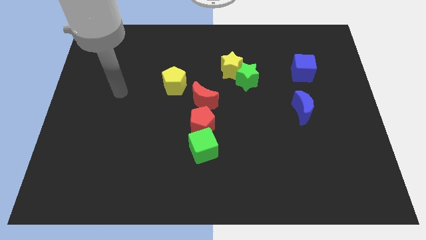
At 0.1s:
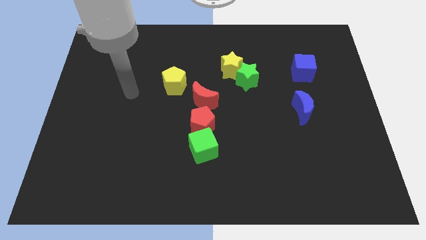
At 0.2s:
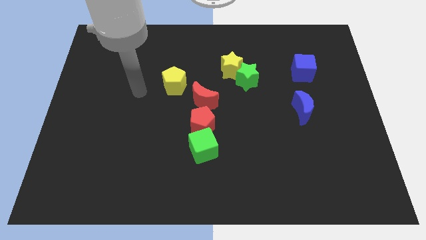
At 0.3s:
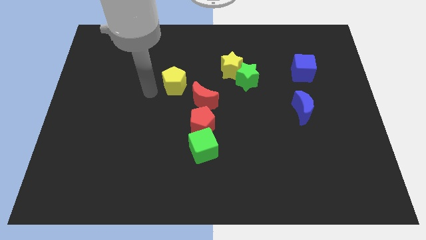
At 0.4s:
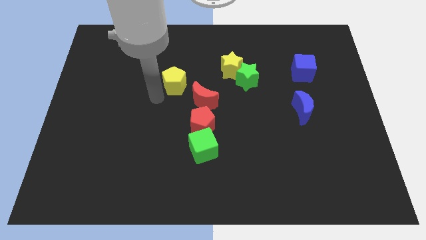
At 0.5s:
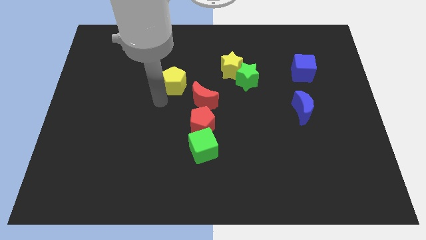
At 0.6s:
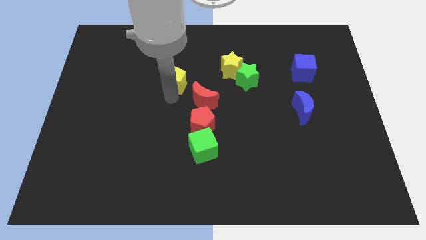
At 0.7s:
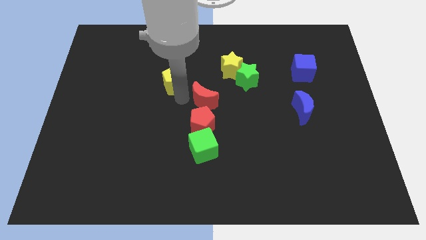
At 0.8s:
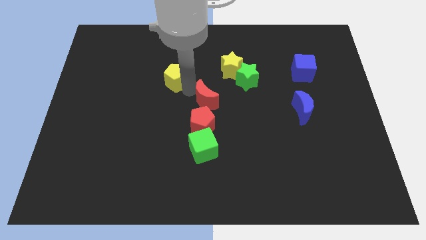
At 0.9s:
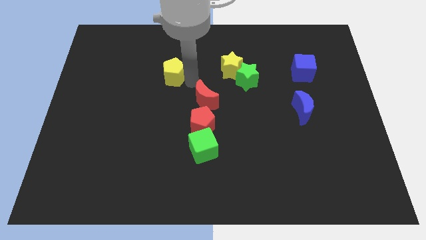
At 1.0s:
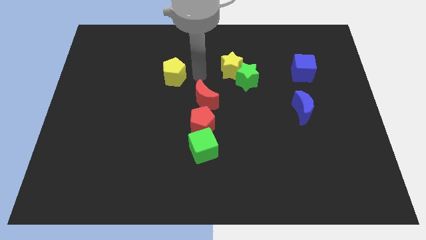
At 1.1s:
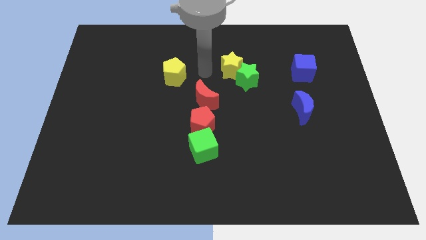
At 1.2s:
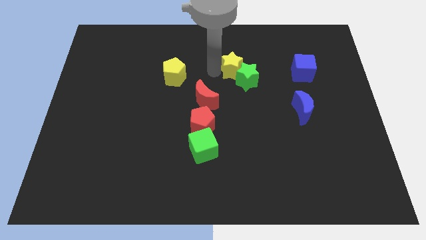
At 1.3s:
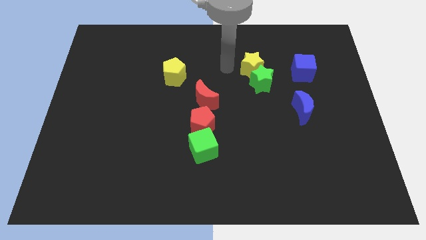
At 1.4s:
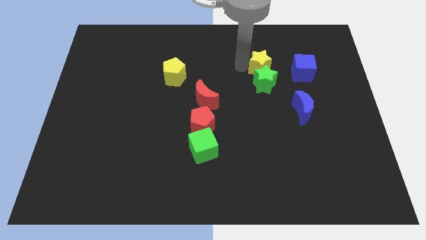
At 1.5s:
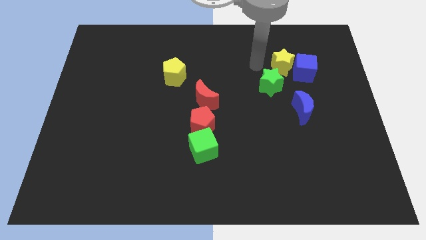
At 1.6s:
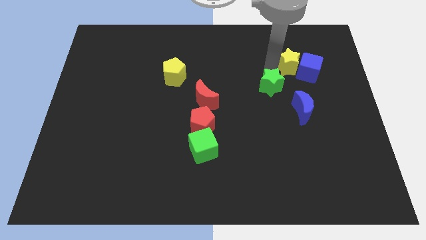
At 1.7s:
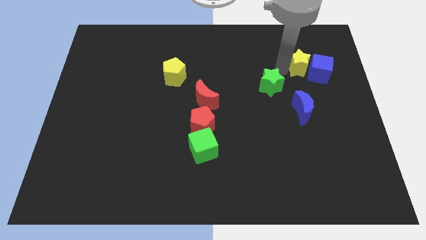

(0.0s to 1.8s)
pull the green star apart from the yellow star

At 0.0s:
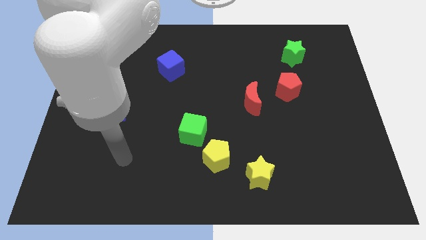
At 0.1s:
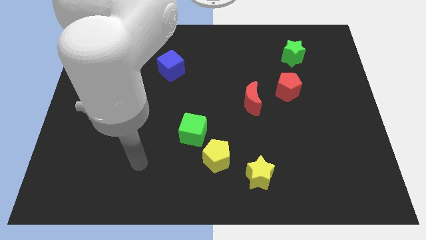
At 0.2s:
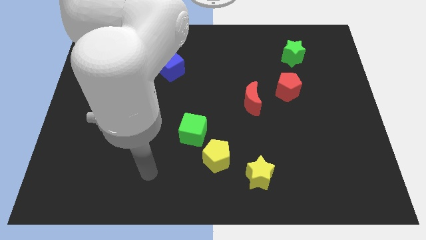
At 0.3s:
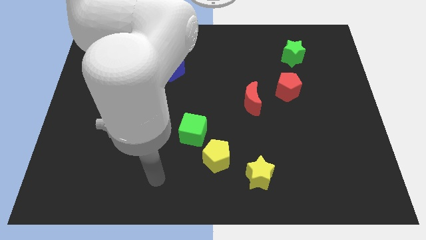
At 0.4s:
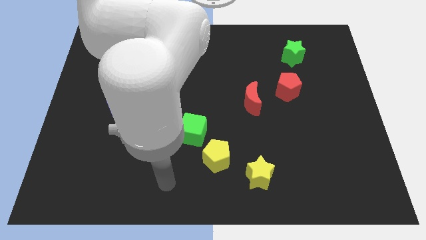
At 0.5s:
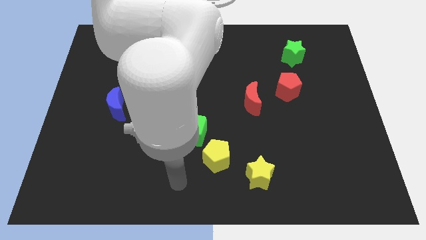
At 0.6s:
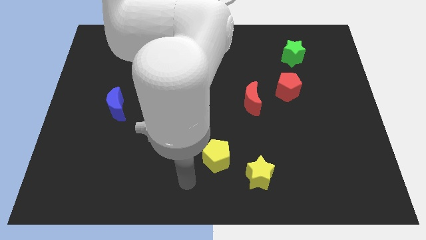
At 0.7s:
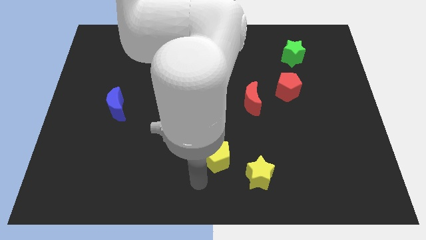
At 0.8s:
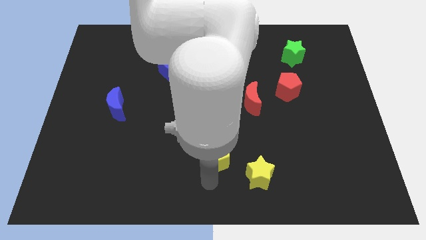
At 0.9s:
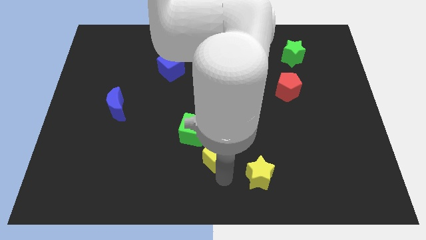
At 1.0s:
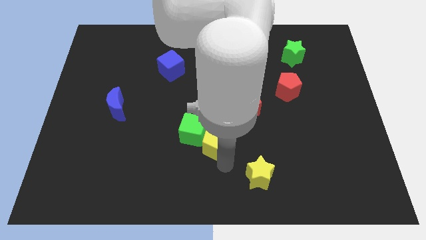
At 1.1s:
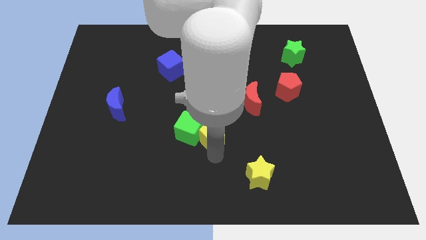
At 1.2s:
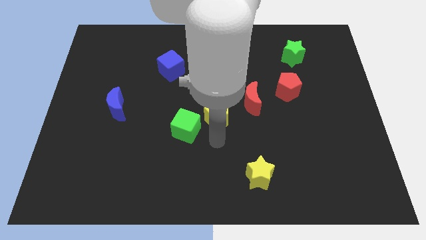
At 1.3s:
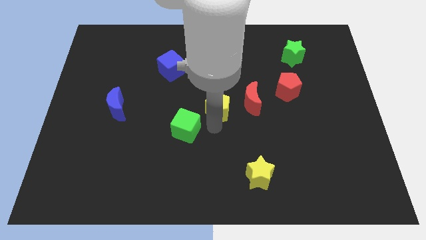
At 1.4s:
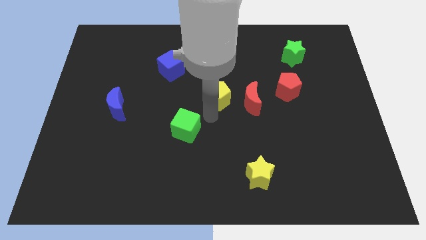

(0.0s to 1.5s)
pull the green cube apart from the yellow pentagon

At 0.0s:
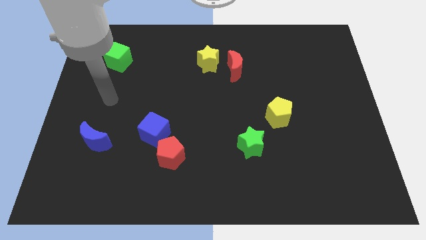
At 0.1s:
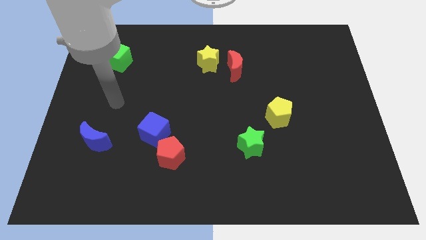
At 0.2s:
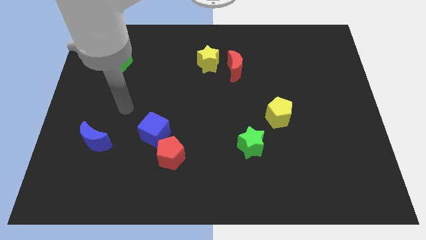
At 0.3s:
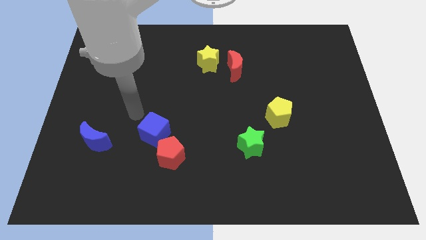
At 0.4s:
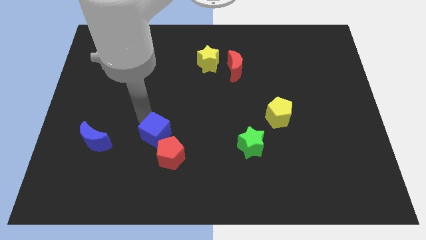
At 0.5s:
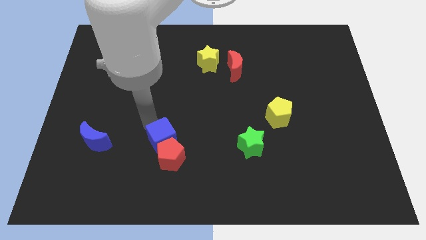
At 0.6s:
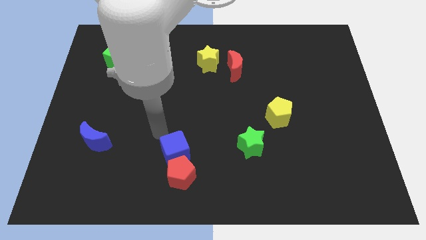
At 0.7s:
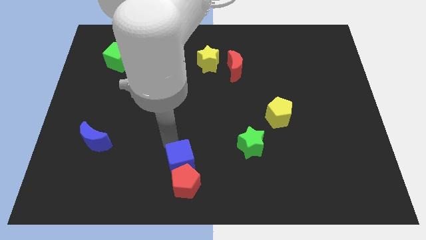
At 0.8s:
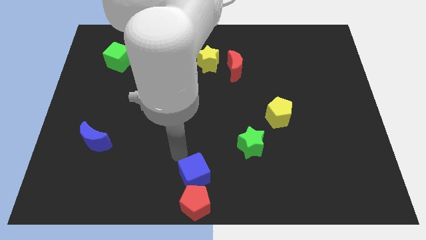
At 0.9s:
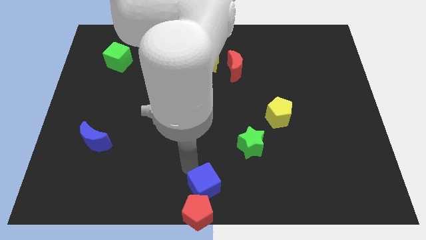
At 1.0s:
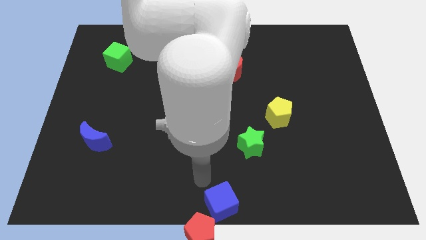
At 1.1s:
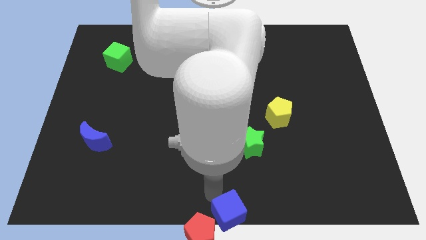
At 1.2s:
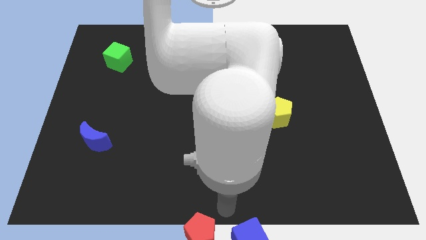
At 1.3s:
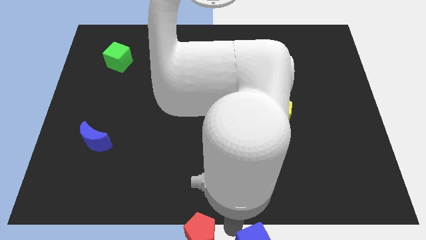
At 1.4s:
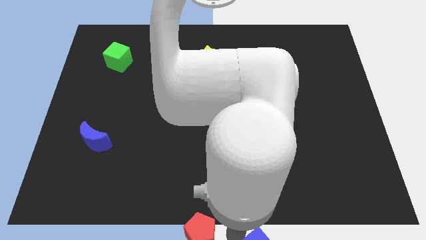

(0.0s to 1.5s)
pull the red pentagon apart from the blue cube

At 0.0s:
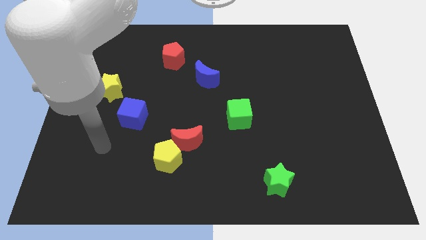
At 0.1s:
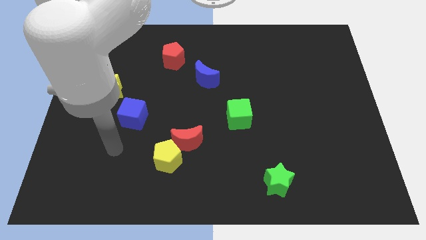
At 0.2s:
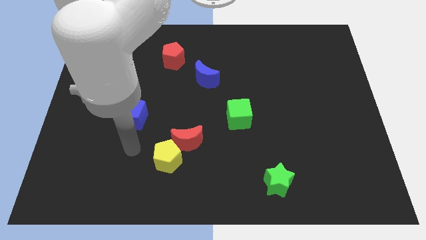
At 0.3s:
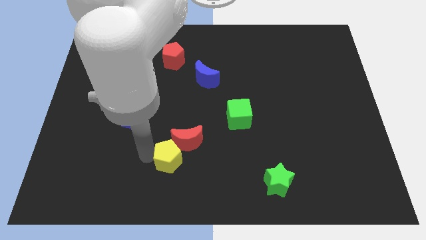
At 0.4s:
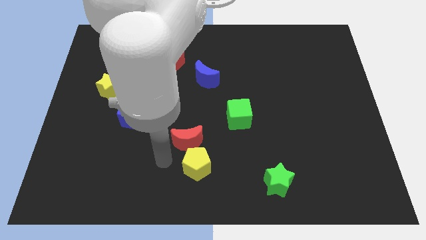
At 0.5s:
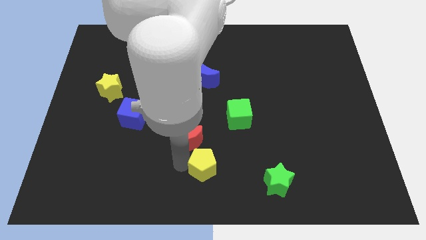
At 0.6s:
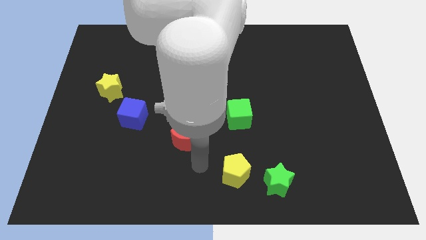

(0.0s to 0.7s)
separate the red moon from the yellow pentagon

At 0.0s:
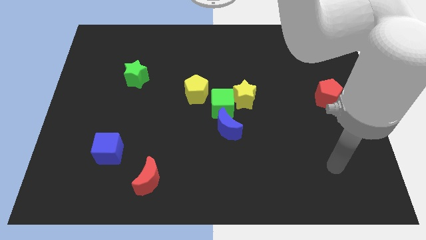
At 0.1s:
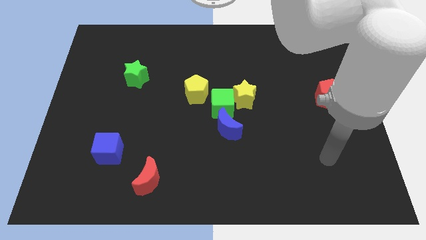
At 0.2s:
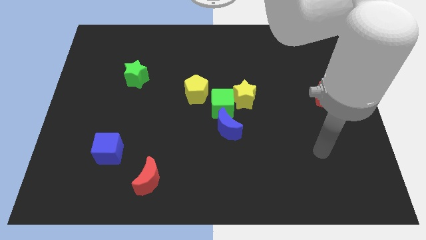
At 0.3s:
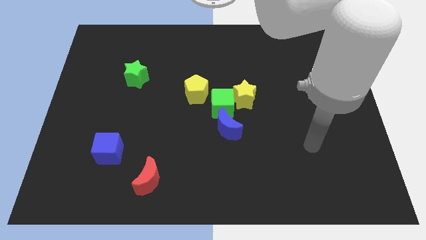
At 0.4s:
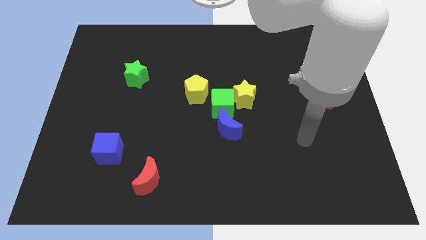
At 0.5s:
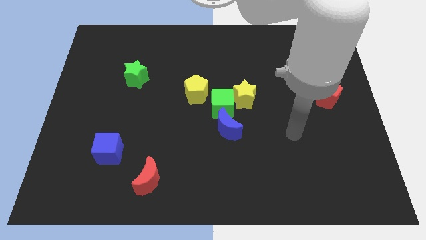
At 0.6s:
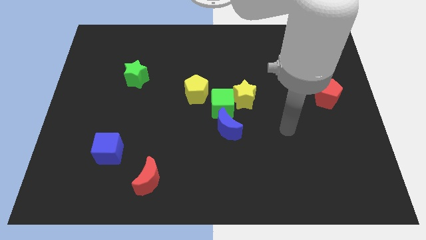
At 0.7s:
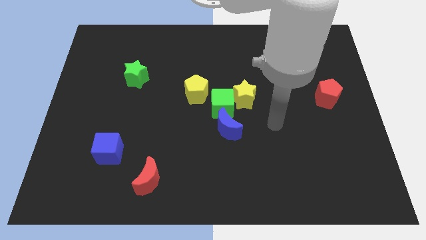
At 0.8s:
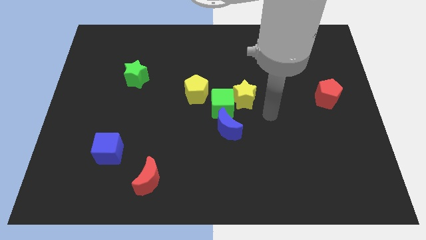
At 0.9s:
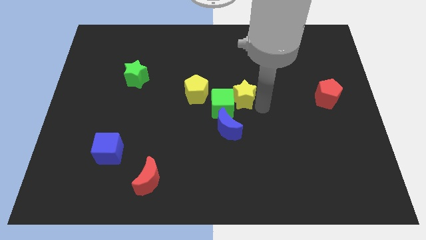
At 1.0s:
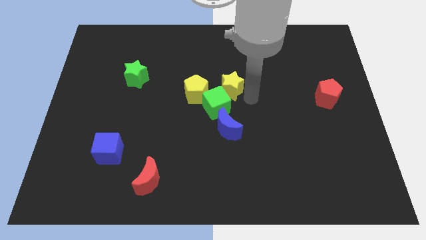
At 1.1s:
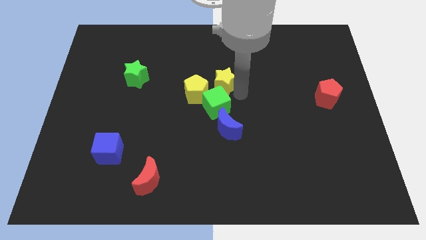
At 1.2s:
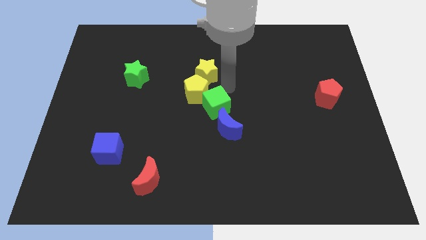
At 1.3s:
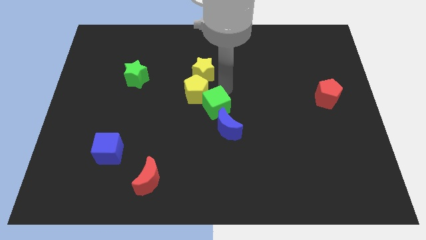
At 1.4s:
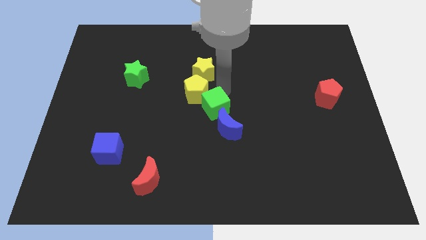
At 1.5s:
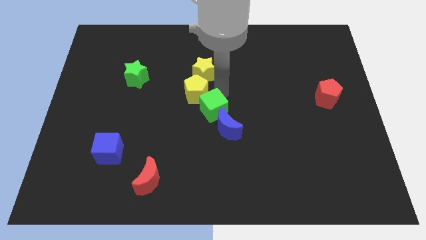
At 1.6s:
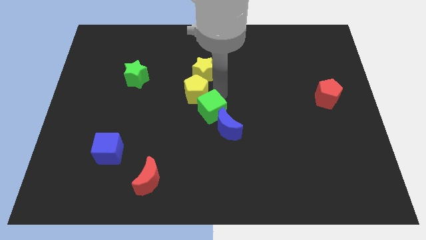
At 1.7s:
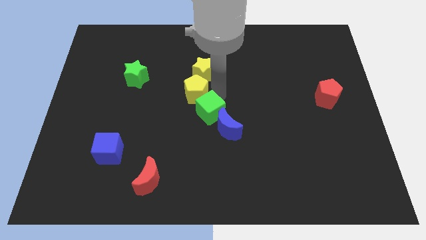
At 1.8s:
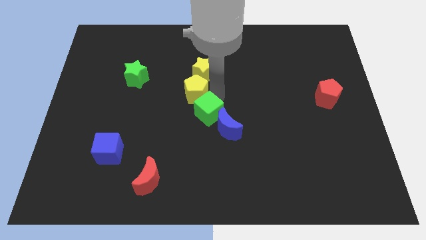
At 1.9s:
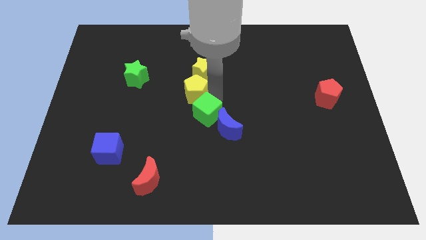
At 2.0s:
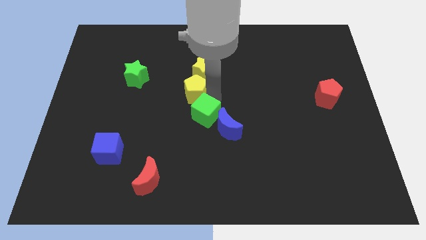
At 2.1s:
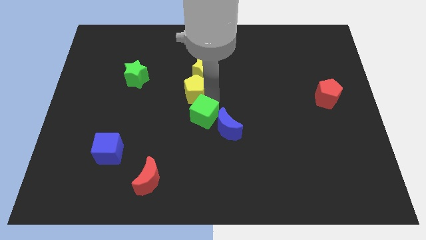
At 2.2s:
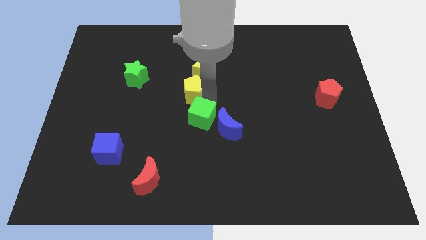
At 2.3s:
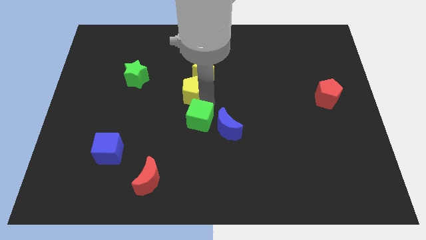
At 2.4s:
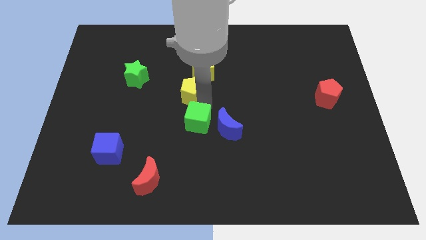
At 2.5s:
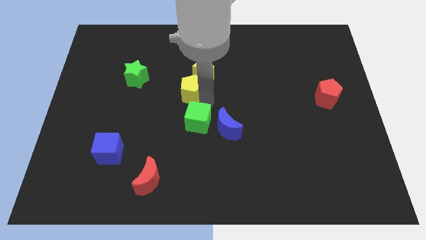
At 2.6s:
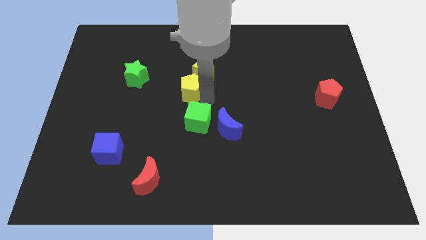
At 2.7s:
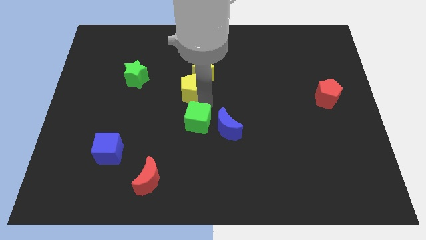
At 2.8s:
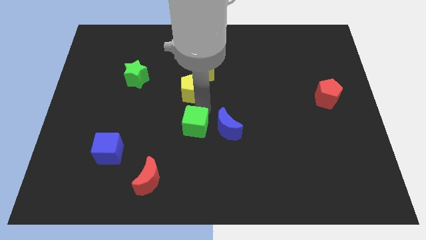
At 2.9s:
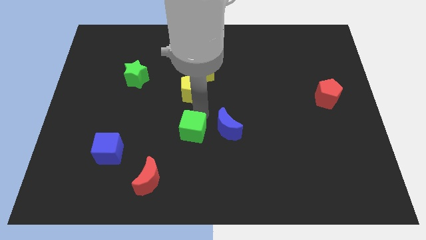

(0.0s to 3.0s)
move the green cube away from the yellow star, blue moon, and yellow pentagon

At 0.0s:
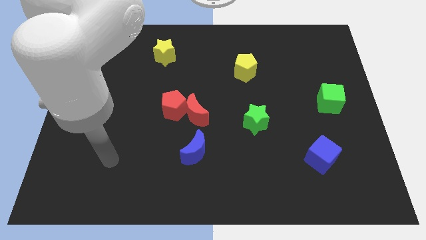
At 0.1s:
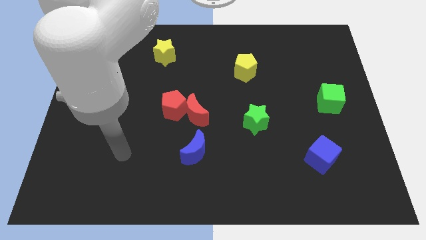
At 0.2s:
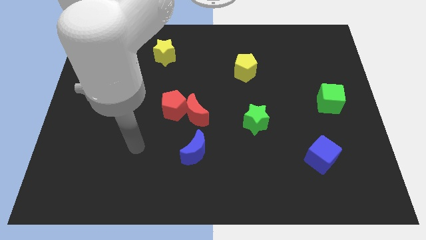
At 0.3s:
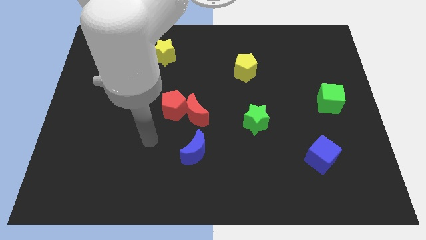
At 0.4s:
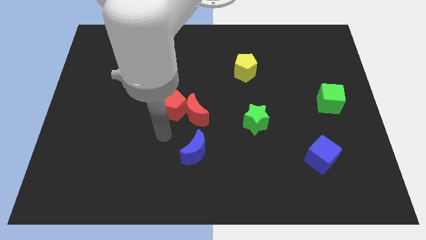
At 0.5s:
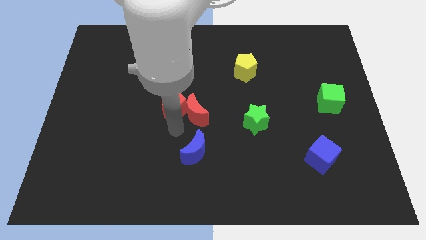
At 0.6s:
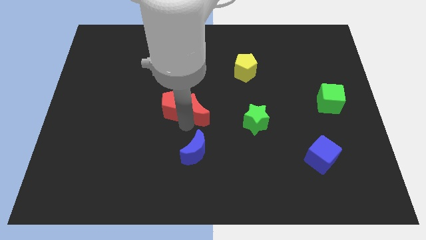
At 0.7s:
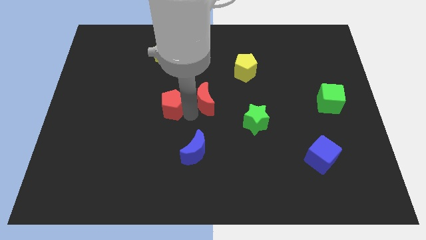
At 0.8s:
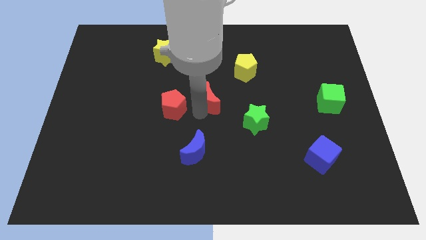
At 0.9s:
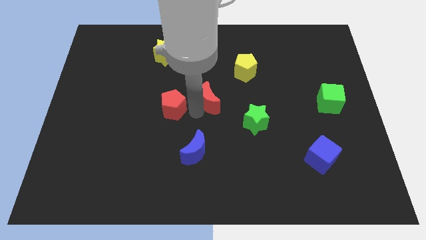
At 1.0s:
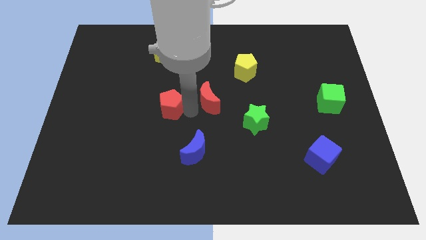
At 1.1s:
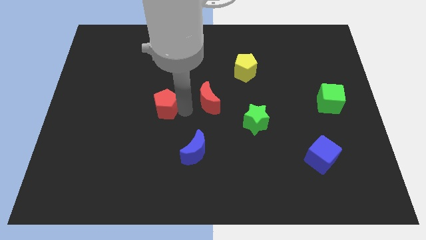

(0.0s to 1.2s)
pull the red pentagon apart from the red moon
